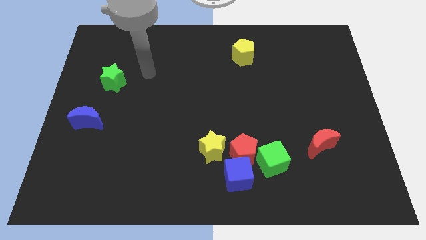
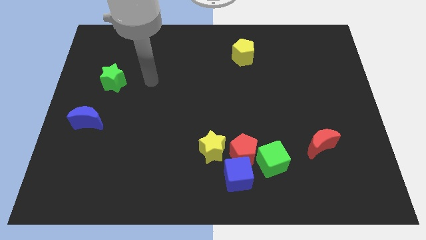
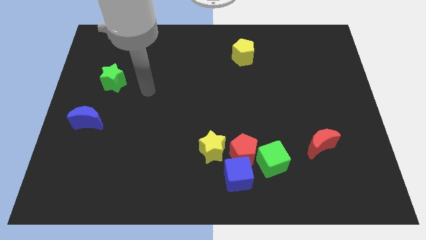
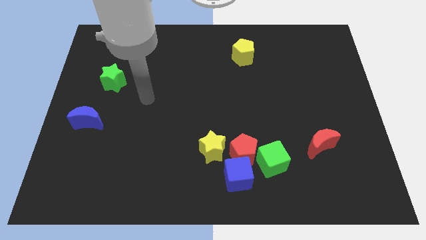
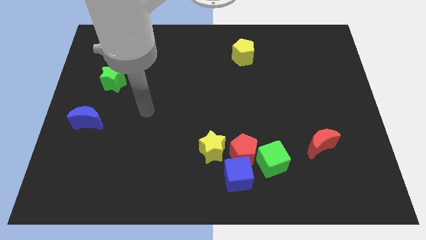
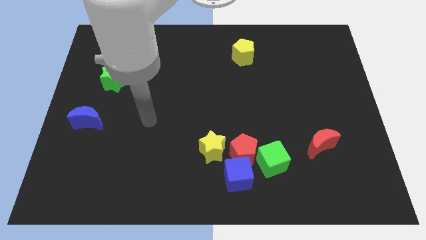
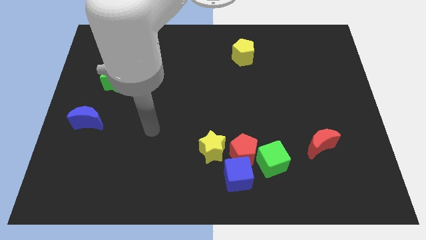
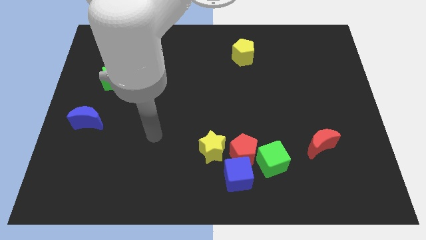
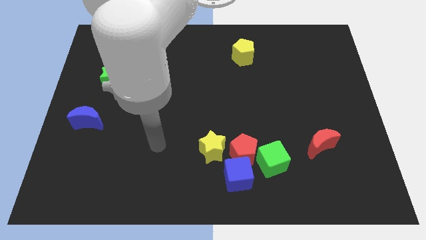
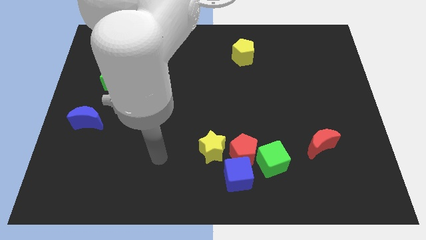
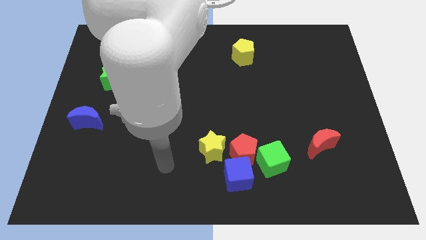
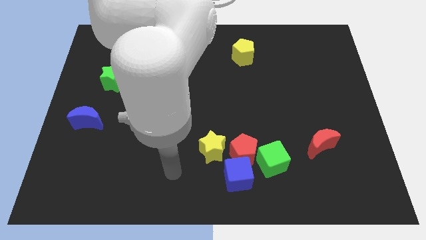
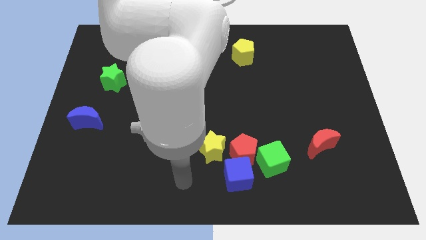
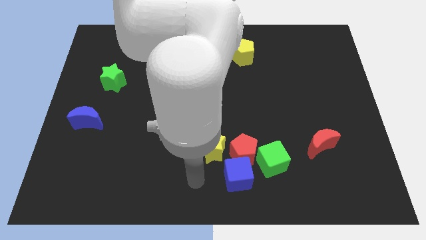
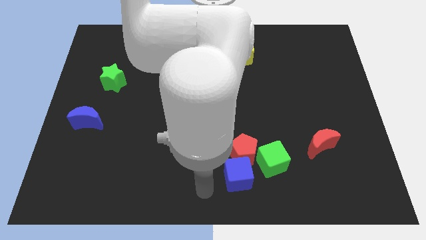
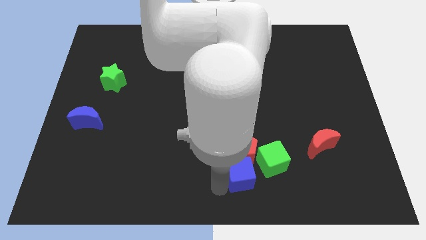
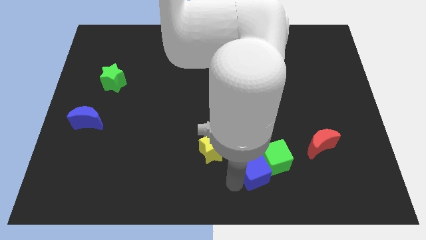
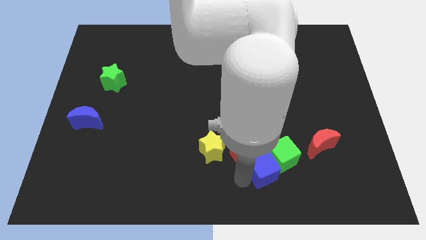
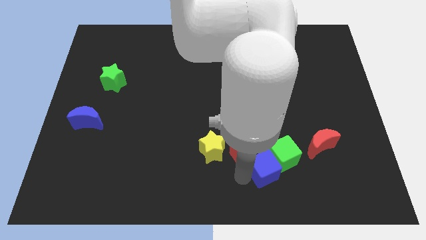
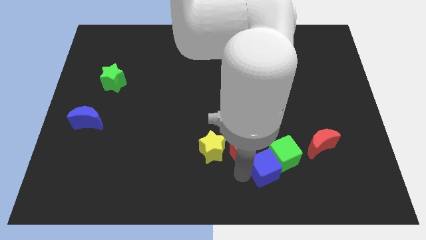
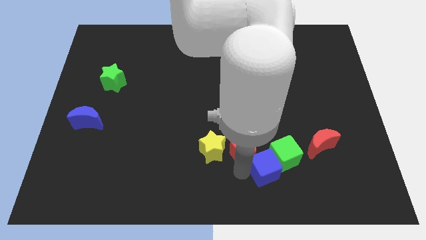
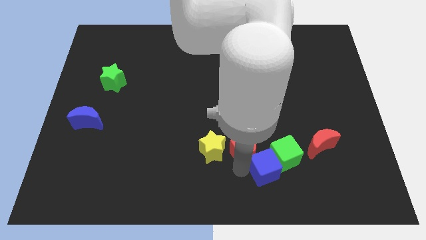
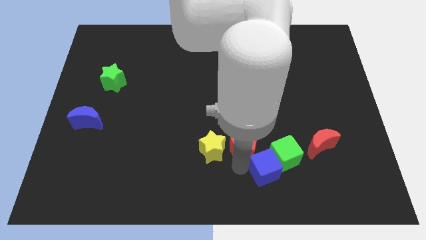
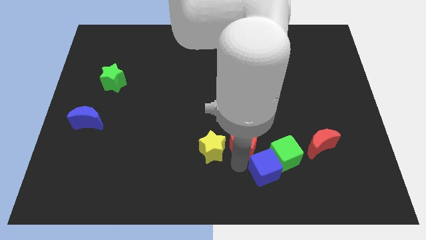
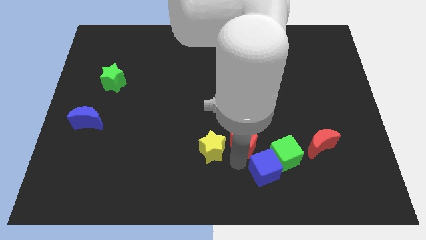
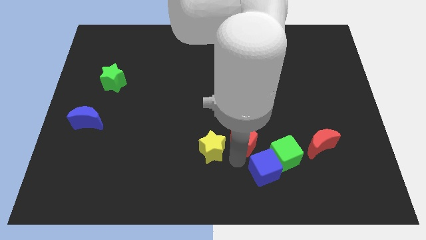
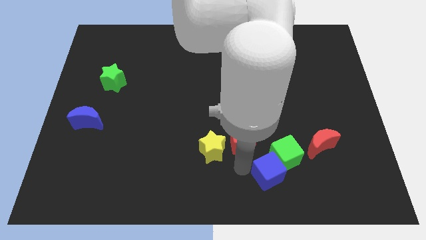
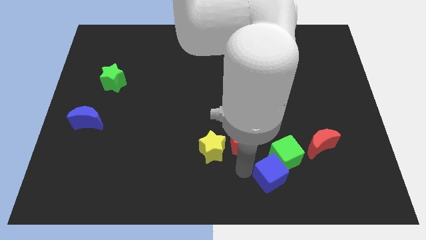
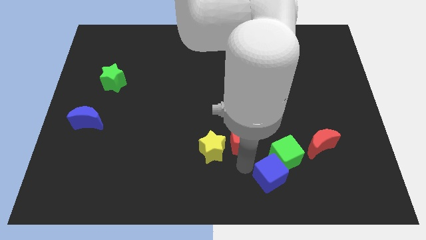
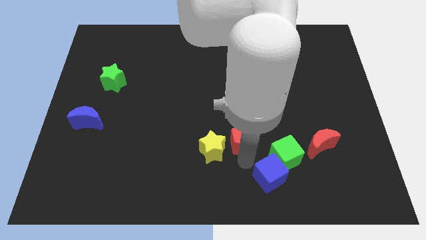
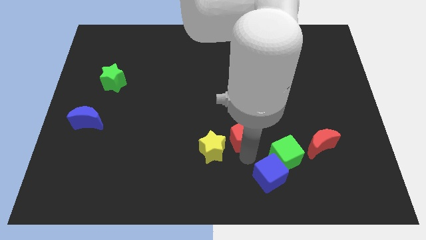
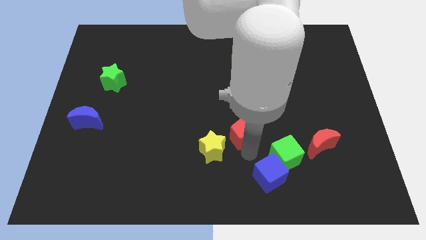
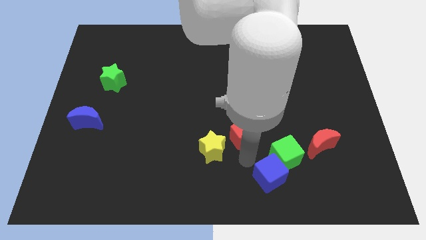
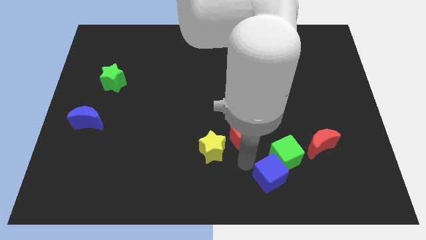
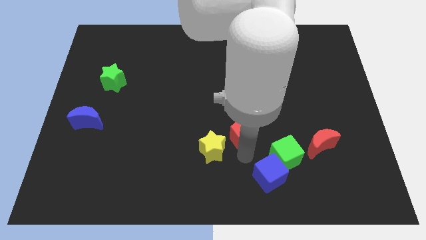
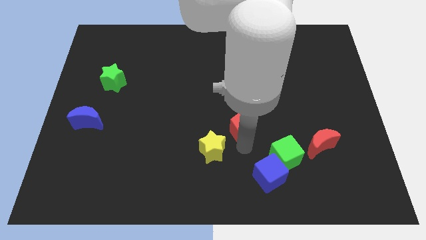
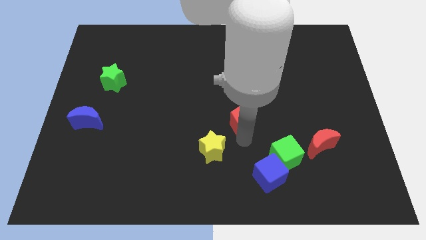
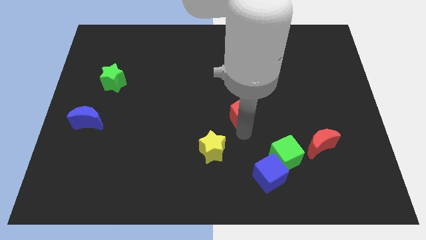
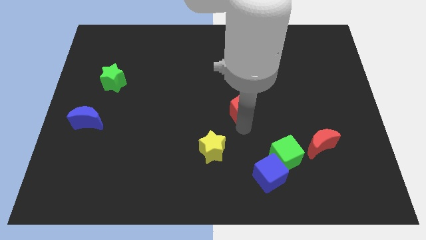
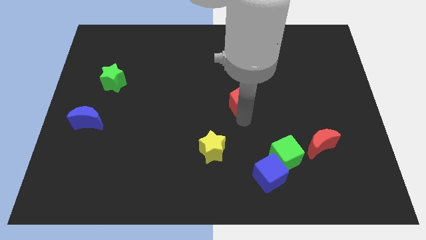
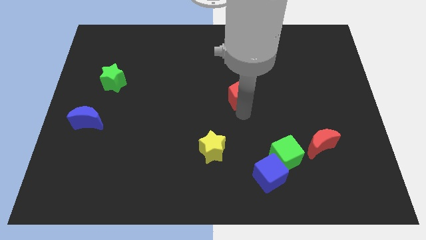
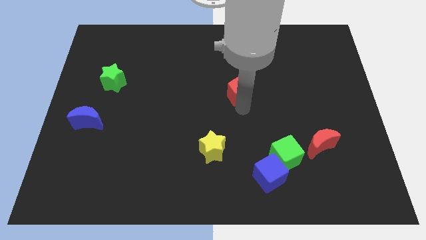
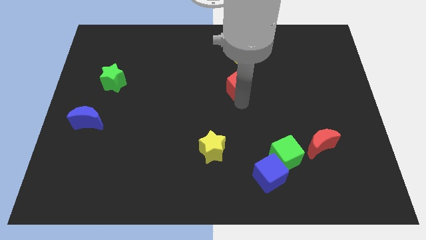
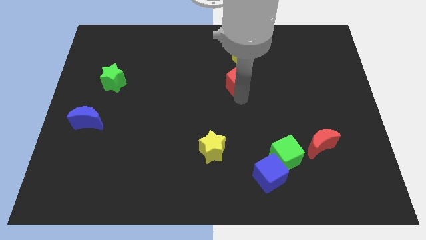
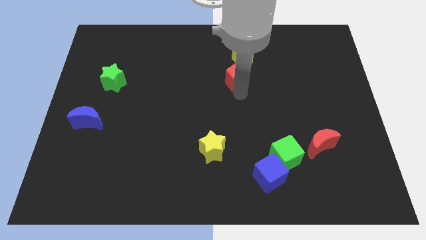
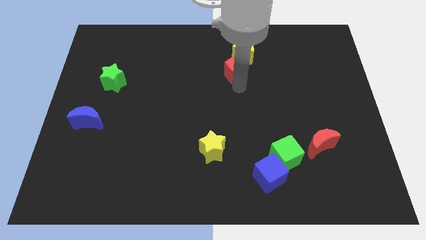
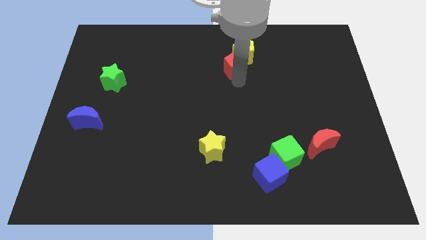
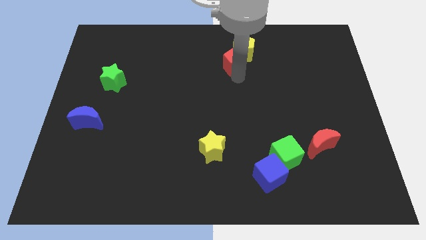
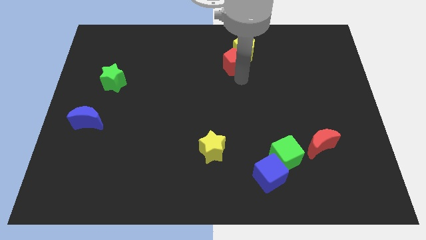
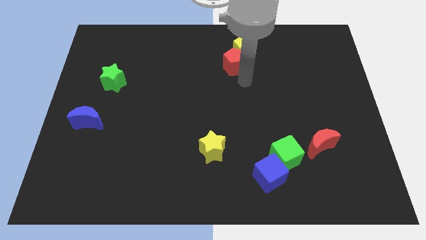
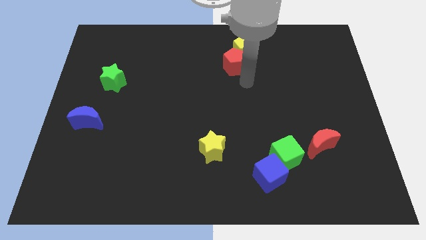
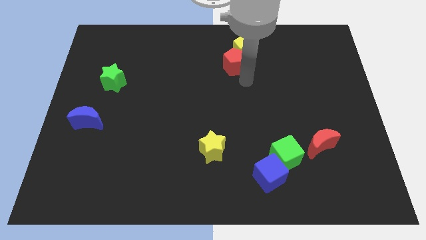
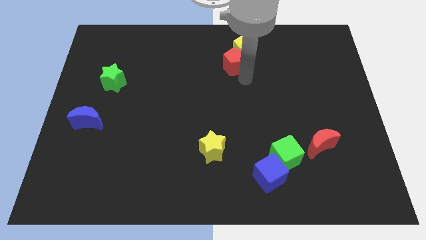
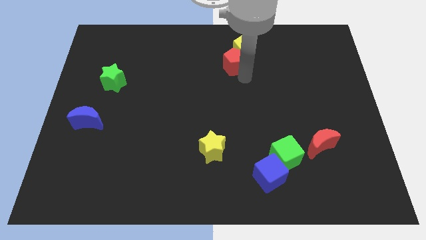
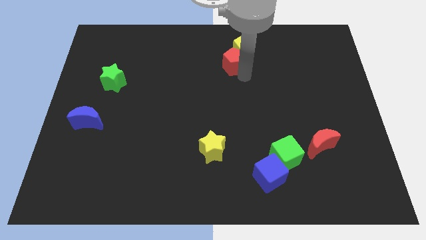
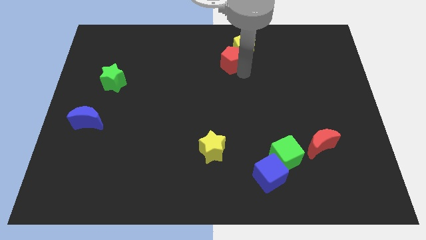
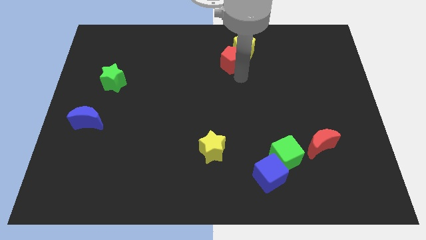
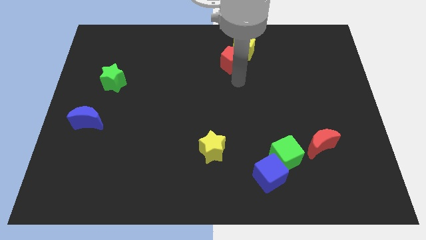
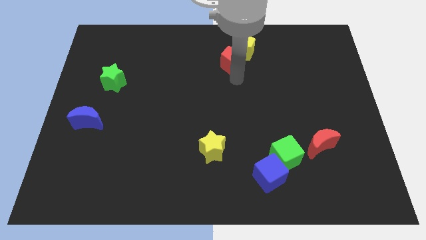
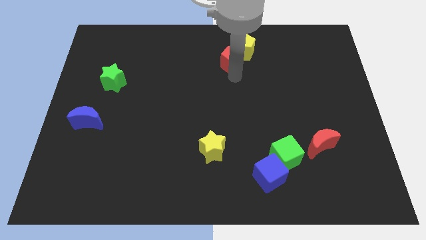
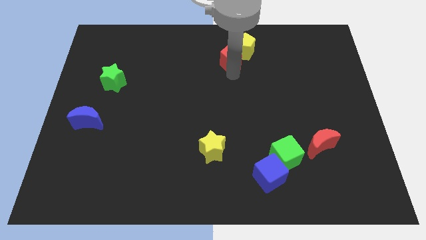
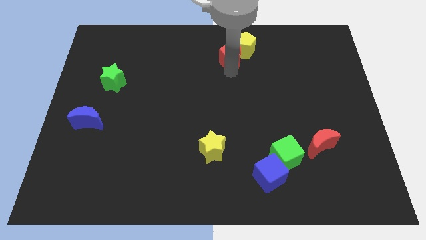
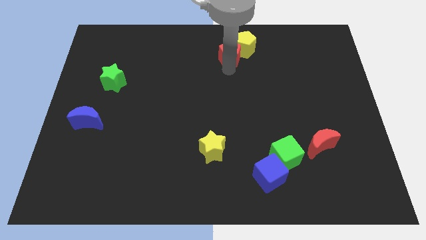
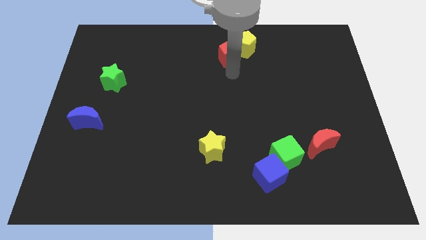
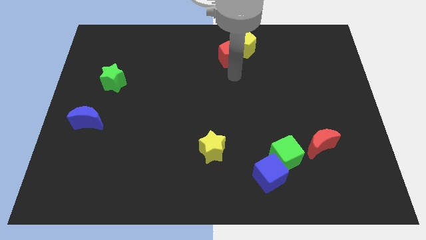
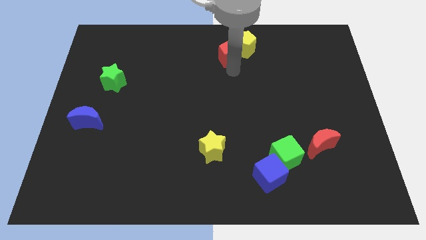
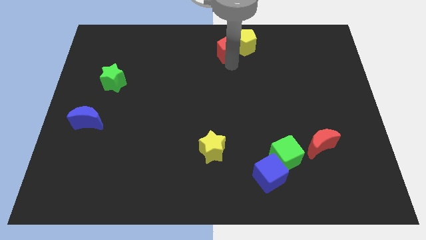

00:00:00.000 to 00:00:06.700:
move the red pentagon to the top
